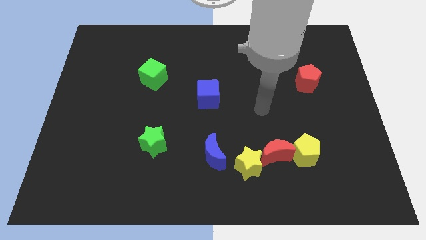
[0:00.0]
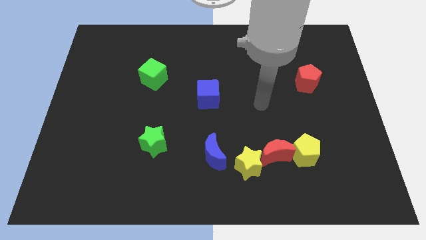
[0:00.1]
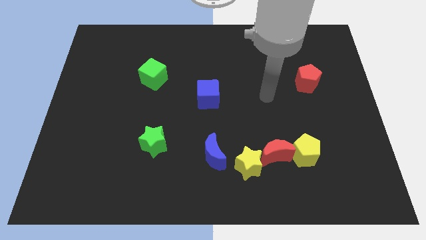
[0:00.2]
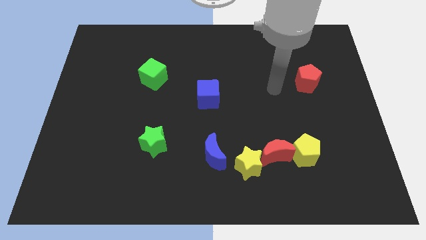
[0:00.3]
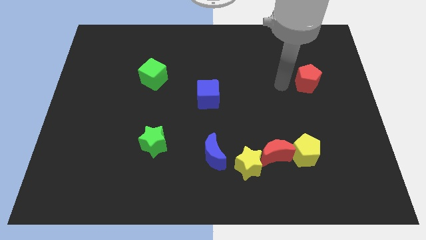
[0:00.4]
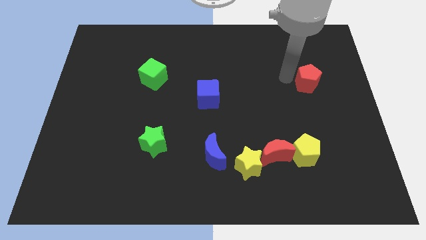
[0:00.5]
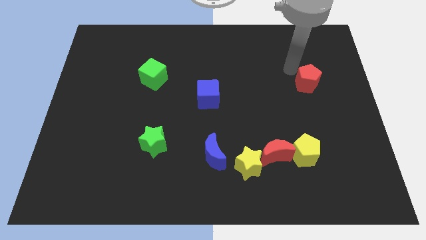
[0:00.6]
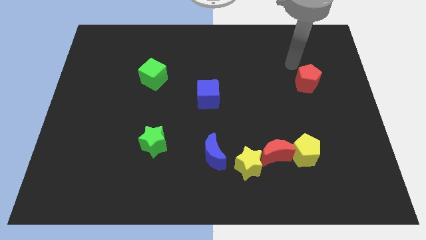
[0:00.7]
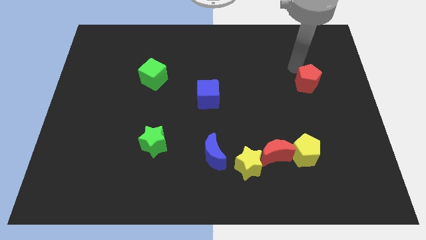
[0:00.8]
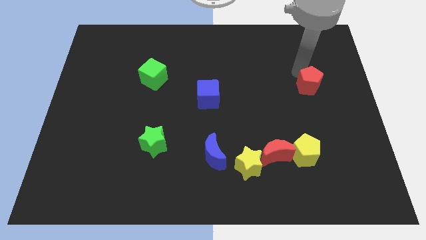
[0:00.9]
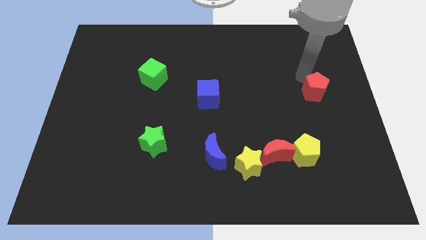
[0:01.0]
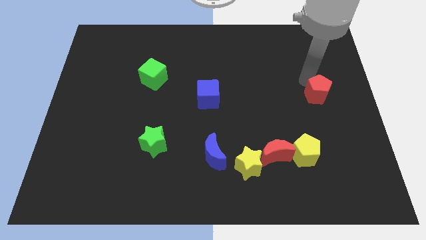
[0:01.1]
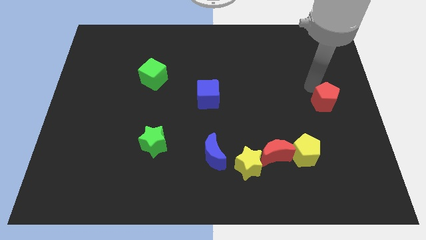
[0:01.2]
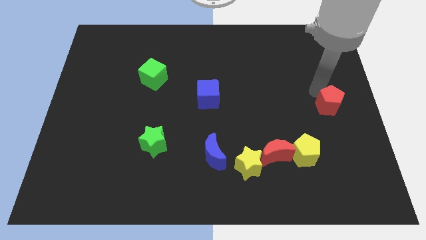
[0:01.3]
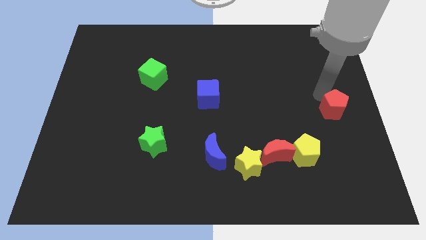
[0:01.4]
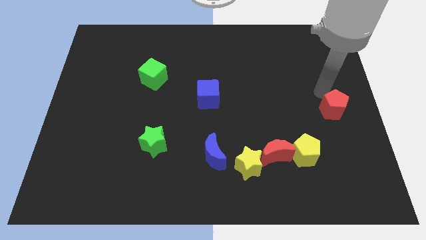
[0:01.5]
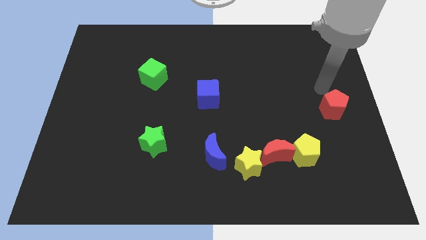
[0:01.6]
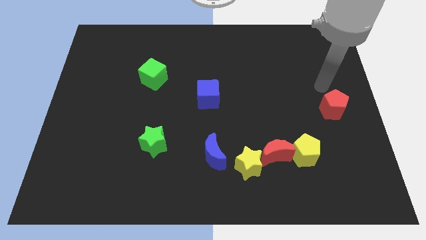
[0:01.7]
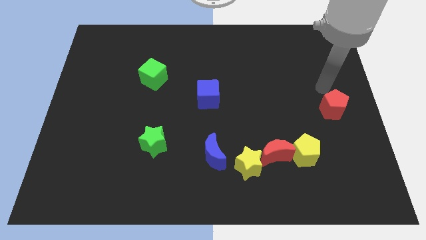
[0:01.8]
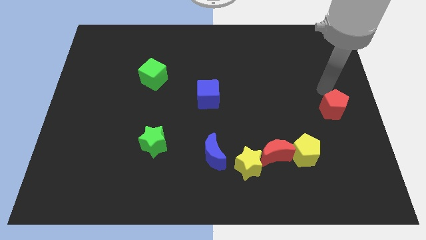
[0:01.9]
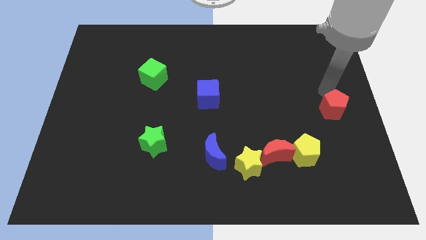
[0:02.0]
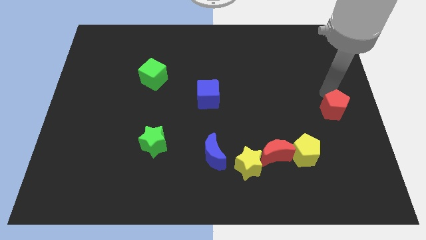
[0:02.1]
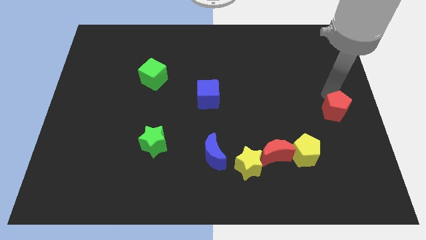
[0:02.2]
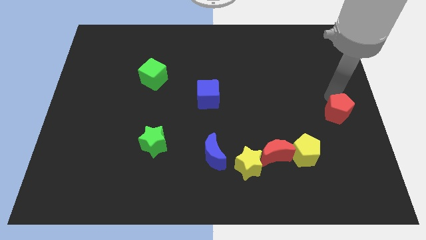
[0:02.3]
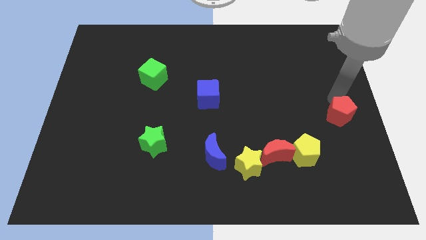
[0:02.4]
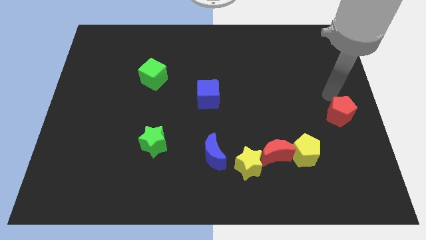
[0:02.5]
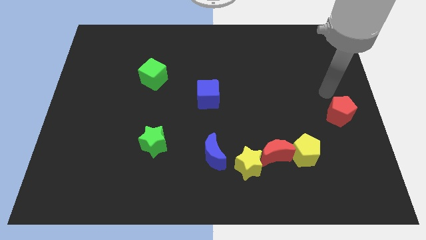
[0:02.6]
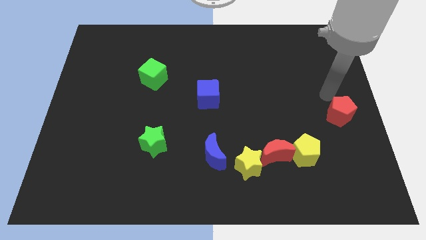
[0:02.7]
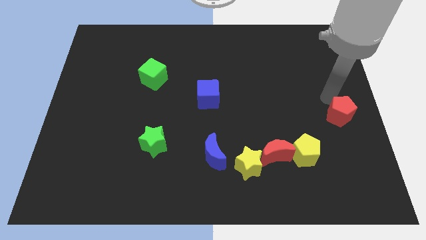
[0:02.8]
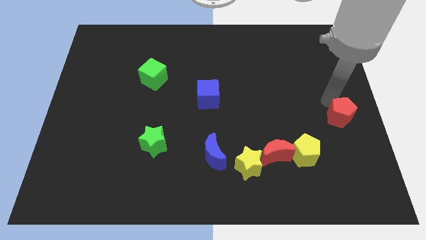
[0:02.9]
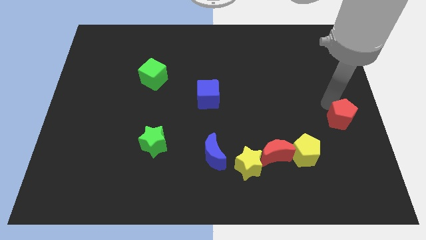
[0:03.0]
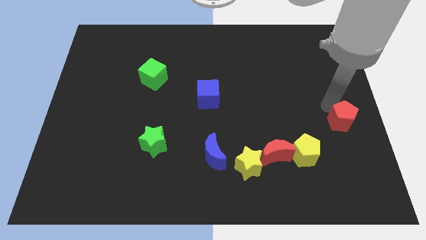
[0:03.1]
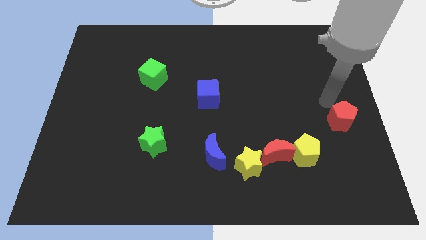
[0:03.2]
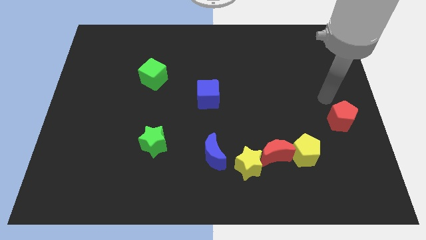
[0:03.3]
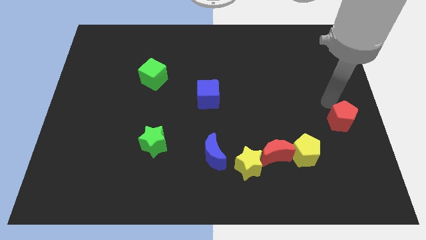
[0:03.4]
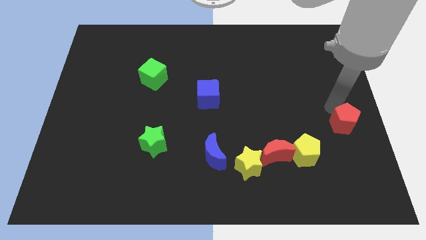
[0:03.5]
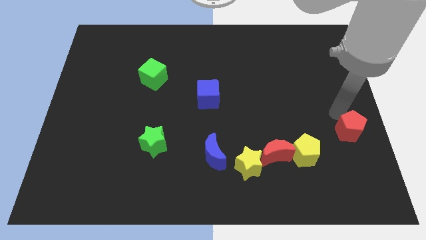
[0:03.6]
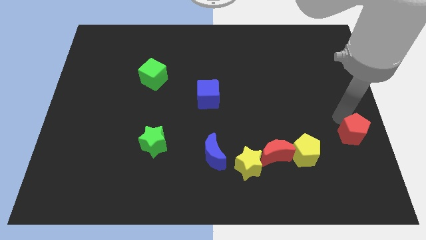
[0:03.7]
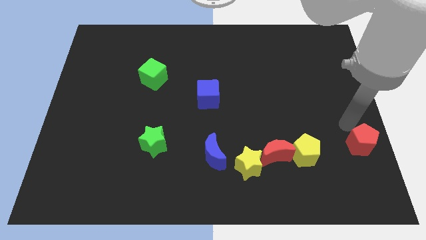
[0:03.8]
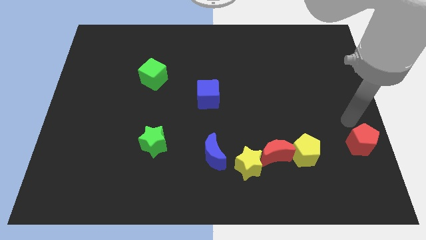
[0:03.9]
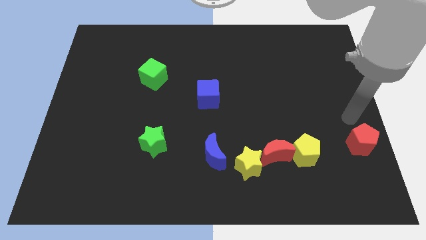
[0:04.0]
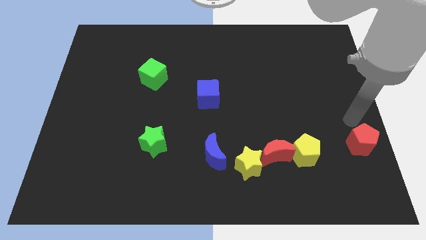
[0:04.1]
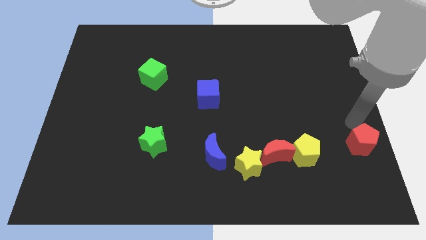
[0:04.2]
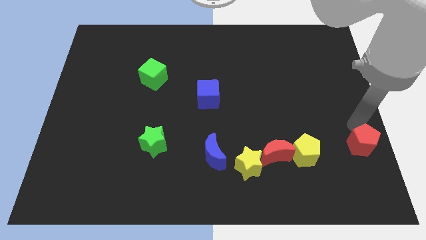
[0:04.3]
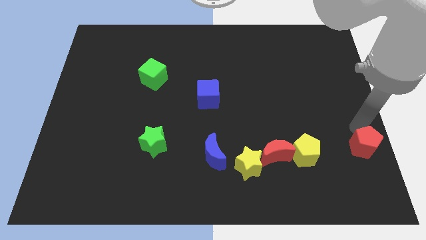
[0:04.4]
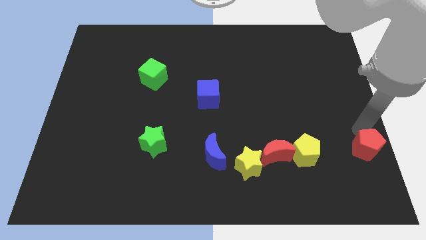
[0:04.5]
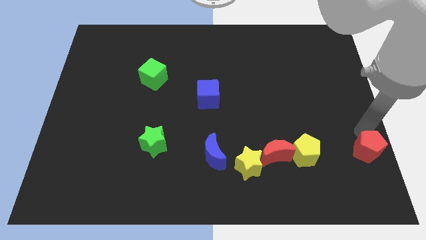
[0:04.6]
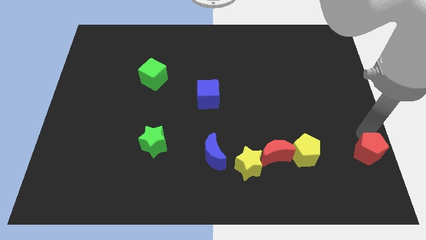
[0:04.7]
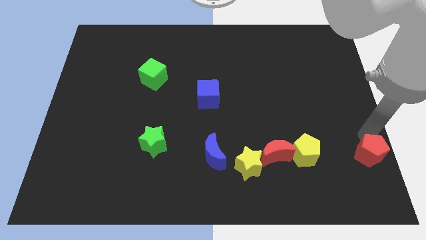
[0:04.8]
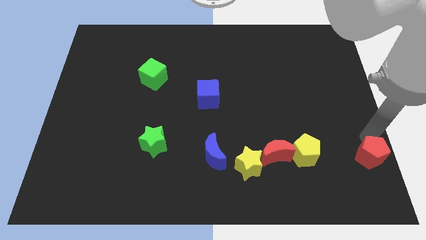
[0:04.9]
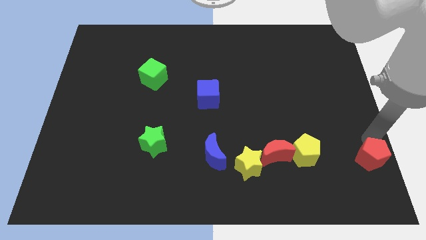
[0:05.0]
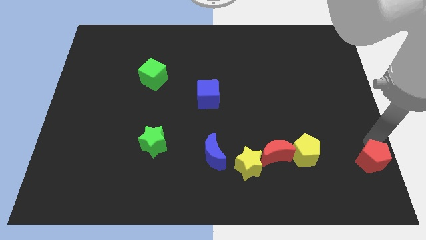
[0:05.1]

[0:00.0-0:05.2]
slide the red pentagon to the bottom right

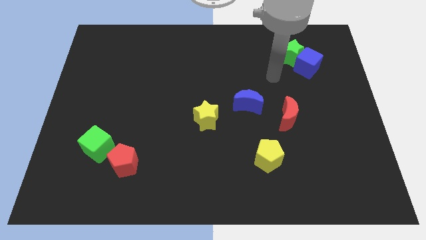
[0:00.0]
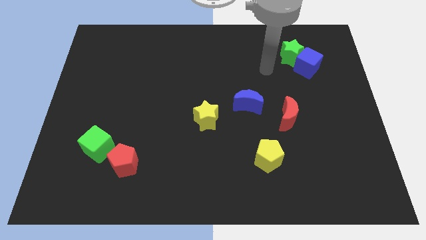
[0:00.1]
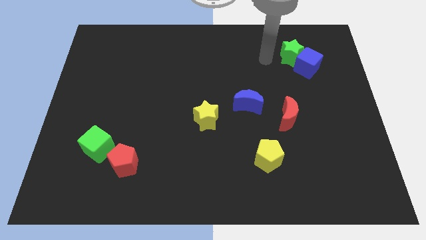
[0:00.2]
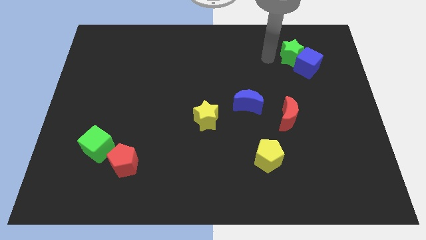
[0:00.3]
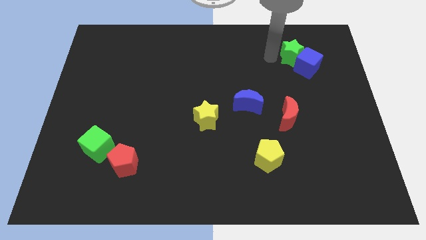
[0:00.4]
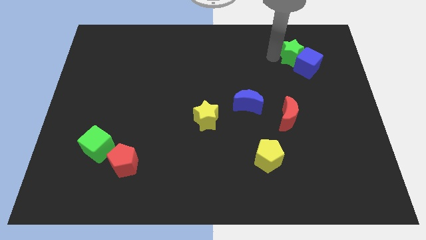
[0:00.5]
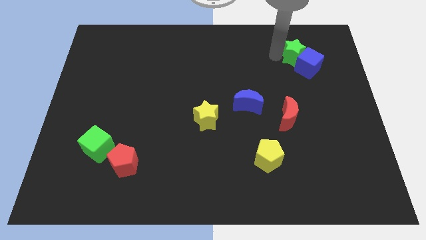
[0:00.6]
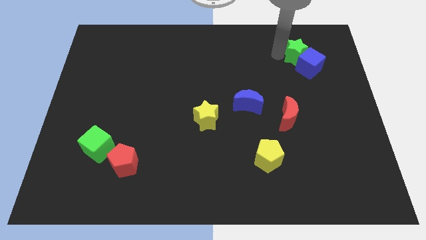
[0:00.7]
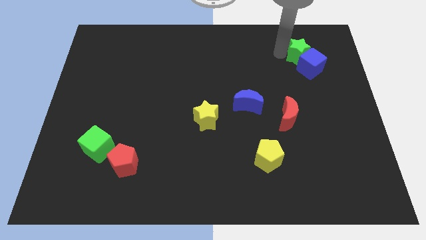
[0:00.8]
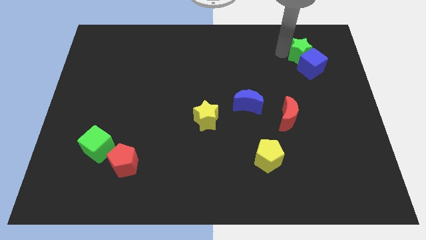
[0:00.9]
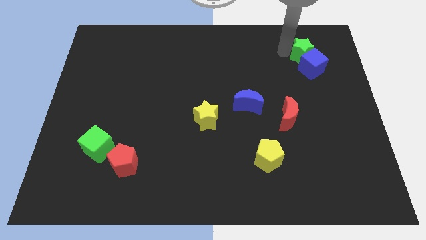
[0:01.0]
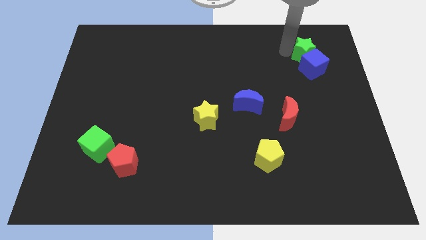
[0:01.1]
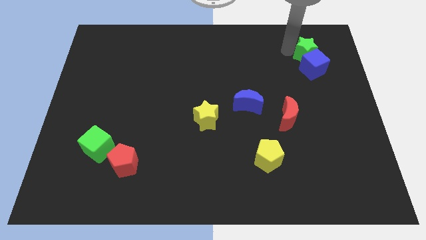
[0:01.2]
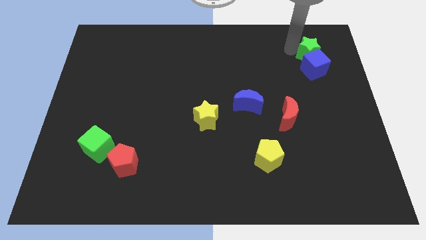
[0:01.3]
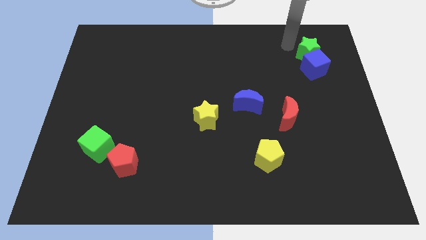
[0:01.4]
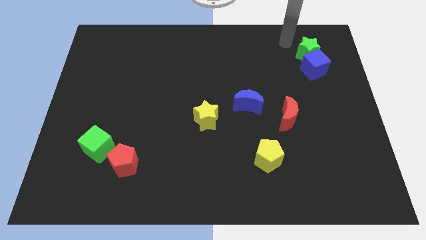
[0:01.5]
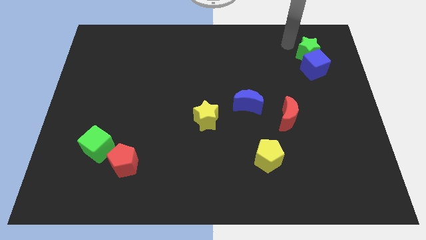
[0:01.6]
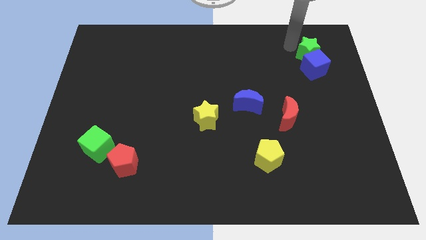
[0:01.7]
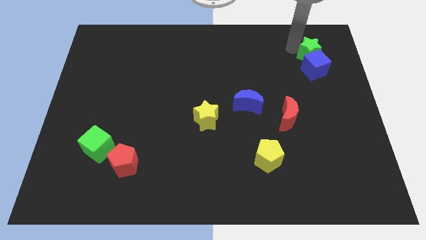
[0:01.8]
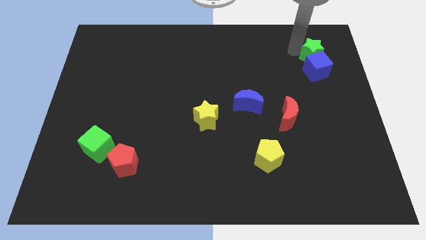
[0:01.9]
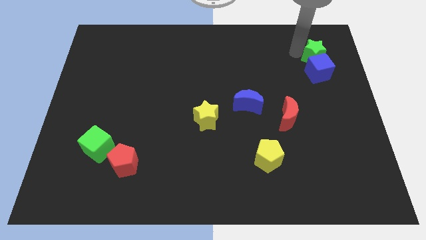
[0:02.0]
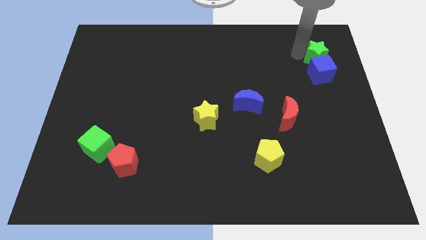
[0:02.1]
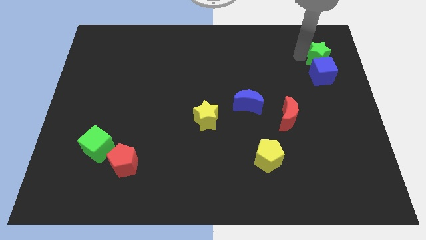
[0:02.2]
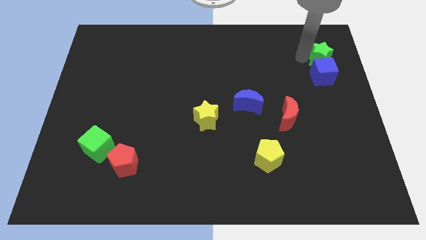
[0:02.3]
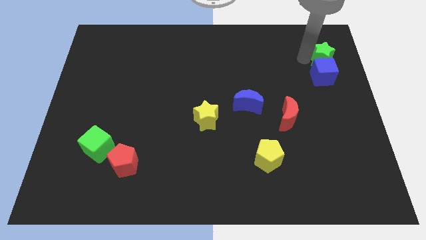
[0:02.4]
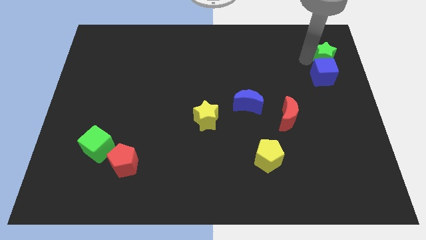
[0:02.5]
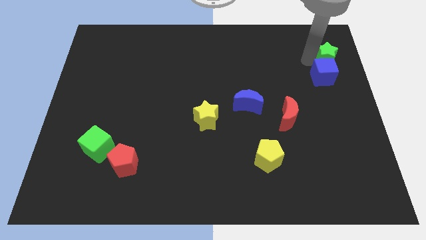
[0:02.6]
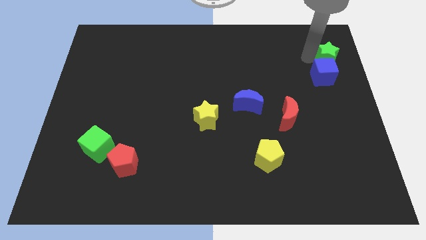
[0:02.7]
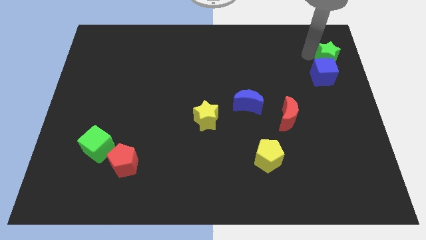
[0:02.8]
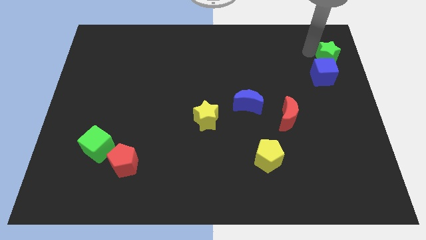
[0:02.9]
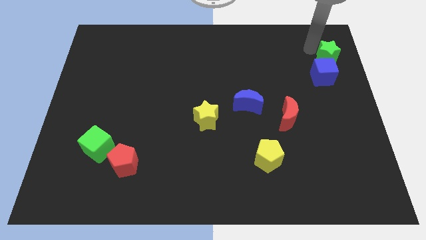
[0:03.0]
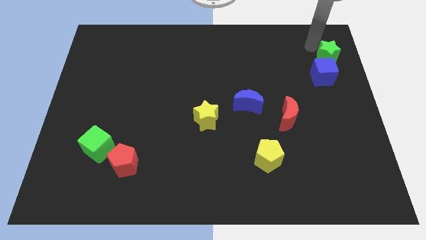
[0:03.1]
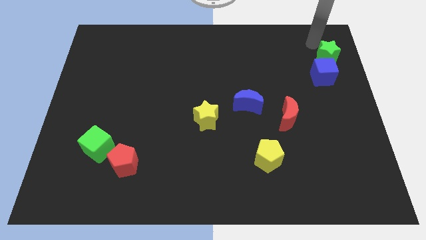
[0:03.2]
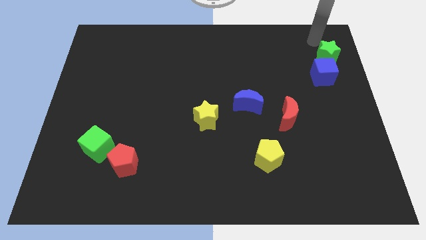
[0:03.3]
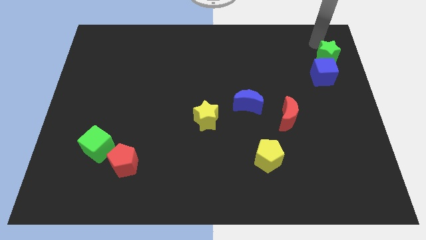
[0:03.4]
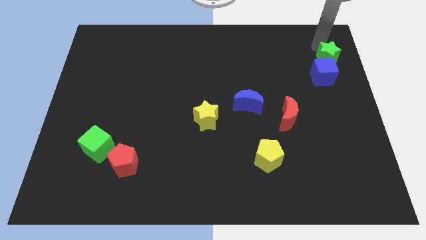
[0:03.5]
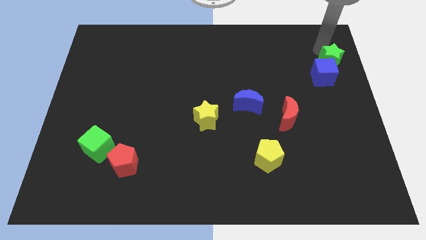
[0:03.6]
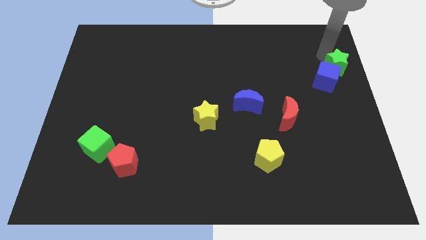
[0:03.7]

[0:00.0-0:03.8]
push the green star to the center right
